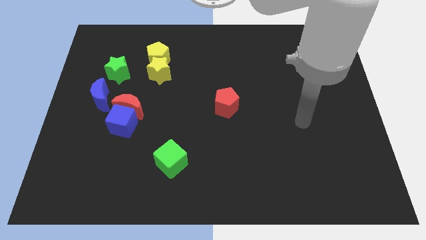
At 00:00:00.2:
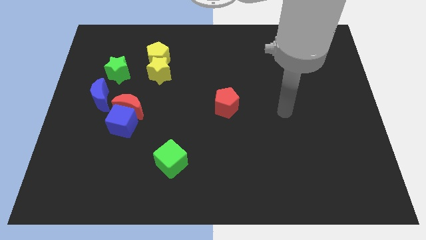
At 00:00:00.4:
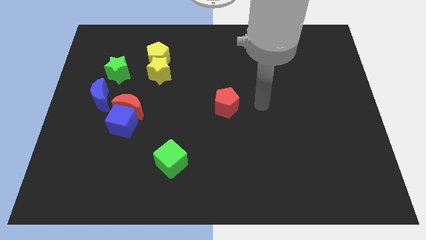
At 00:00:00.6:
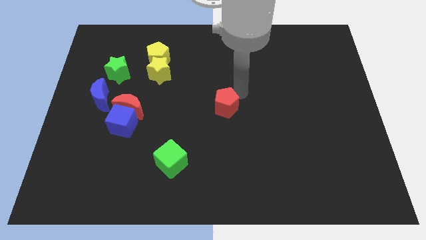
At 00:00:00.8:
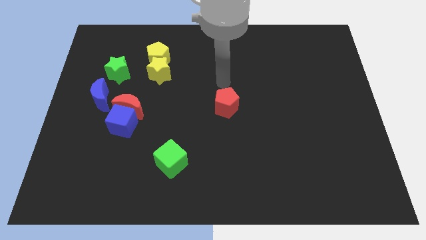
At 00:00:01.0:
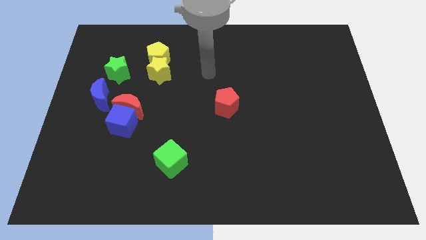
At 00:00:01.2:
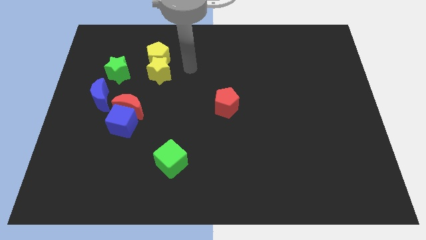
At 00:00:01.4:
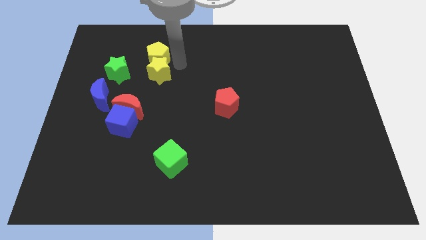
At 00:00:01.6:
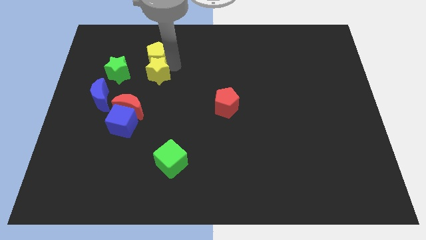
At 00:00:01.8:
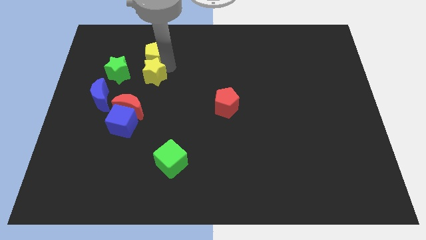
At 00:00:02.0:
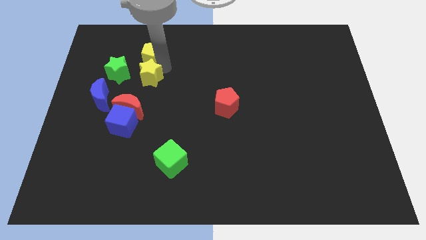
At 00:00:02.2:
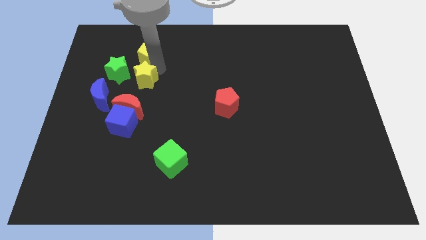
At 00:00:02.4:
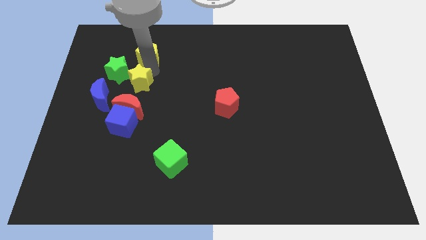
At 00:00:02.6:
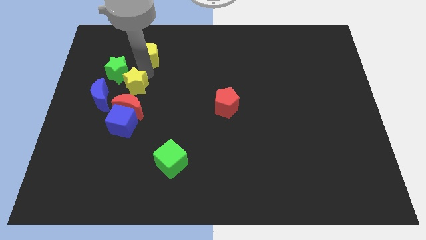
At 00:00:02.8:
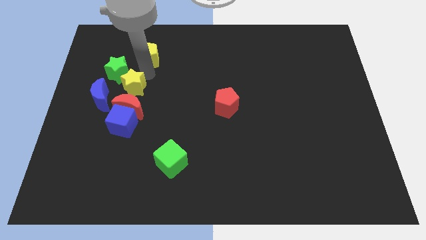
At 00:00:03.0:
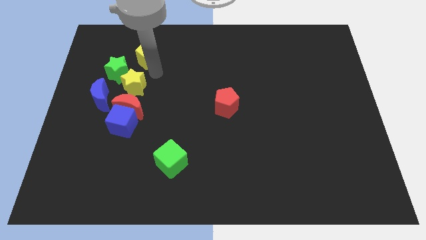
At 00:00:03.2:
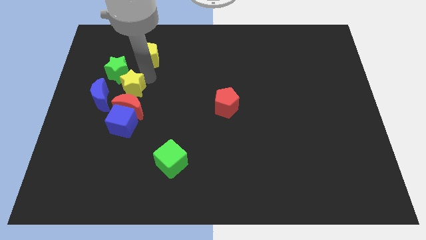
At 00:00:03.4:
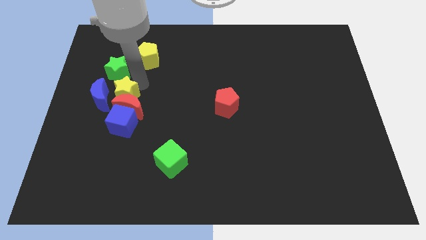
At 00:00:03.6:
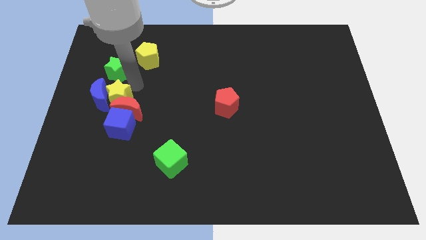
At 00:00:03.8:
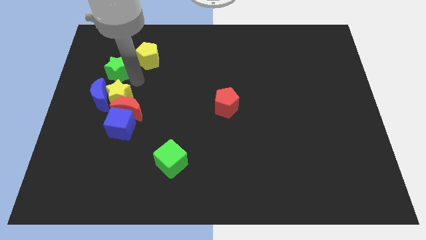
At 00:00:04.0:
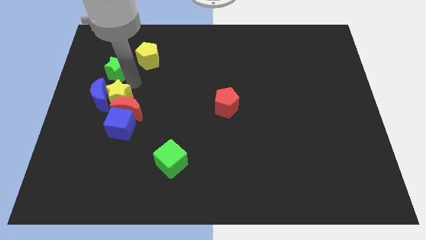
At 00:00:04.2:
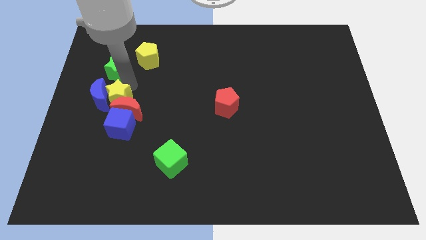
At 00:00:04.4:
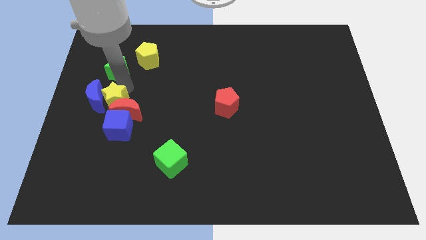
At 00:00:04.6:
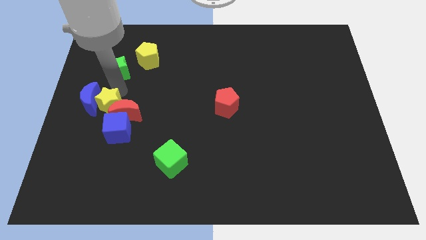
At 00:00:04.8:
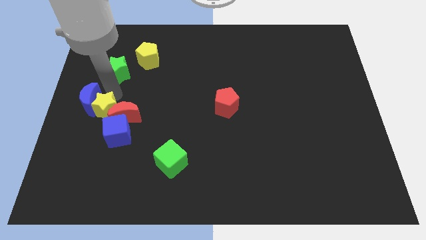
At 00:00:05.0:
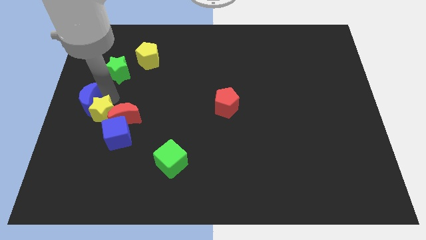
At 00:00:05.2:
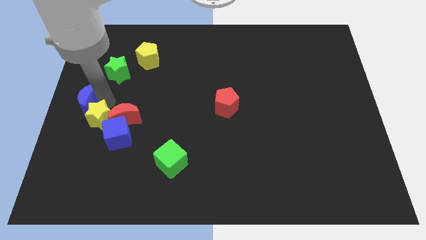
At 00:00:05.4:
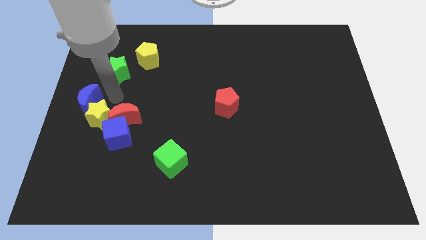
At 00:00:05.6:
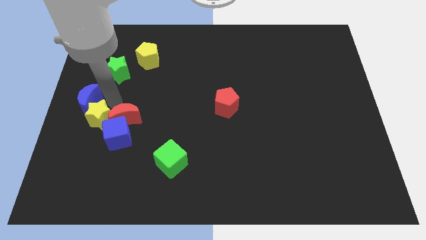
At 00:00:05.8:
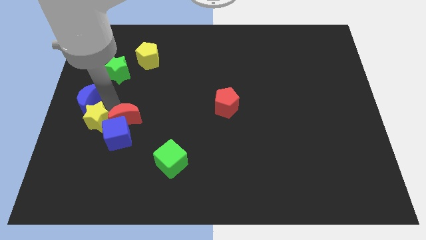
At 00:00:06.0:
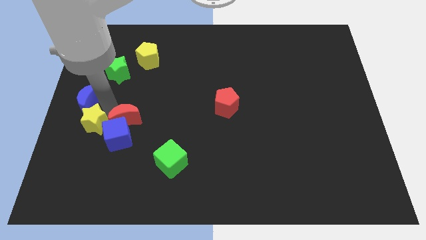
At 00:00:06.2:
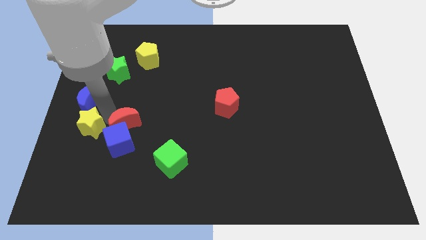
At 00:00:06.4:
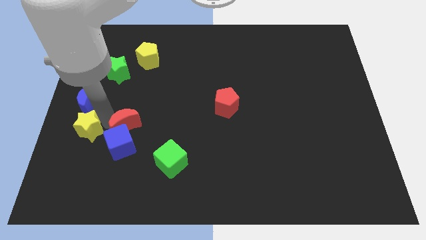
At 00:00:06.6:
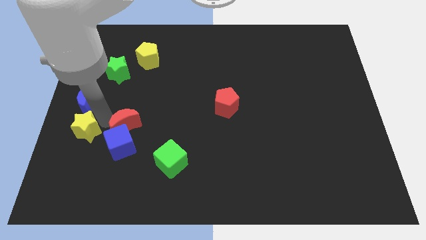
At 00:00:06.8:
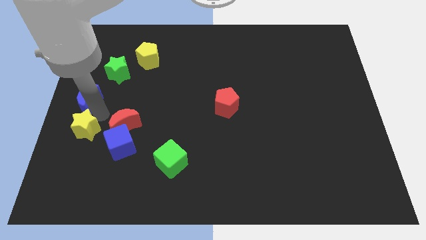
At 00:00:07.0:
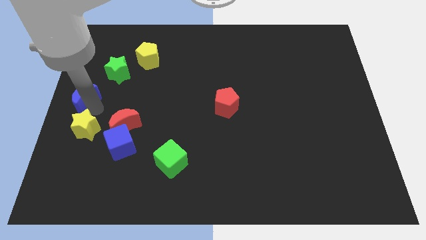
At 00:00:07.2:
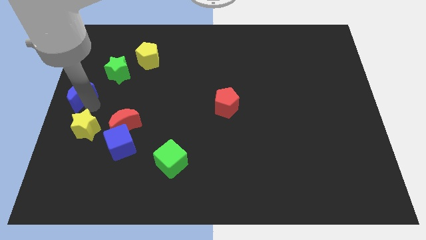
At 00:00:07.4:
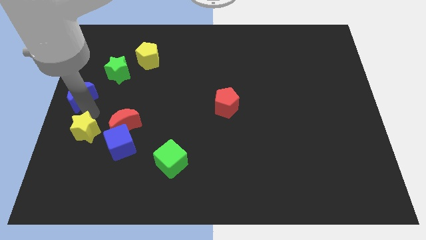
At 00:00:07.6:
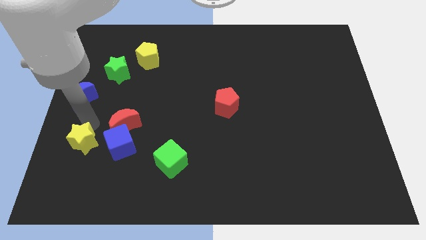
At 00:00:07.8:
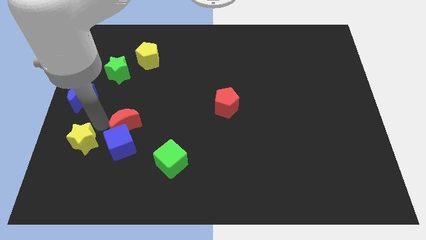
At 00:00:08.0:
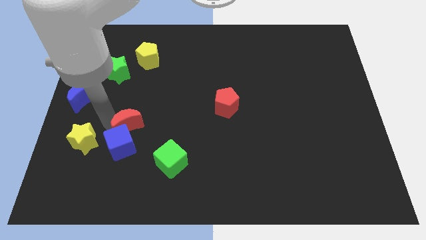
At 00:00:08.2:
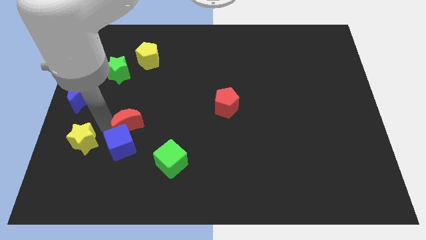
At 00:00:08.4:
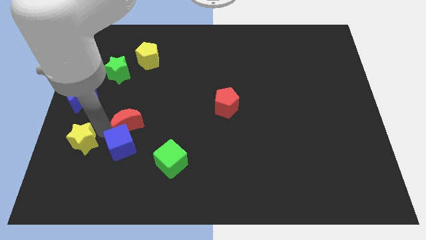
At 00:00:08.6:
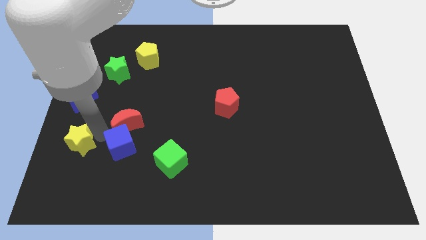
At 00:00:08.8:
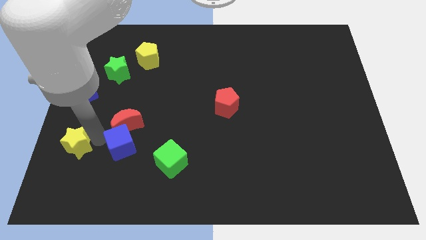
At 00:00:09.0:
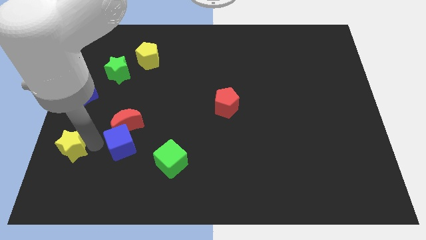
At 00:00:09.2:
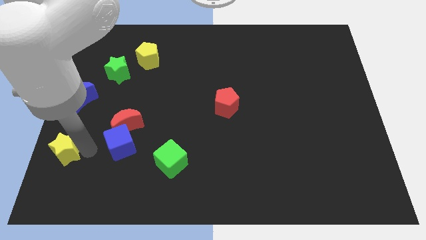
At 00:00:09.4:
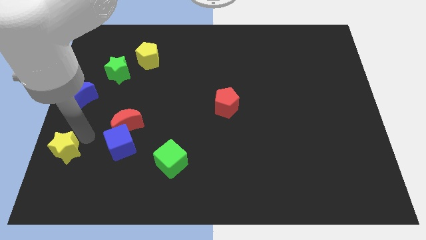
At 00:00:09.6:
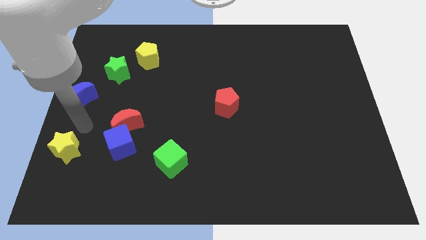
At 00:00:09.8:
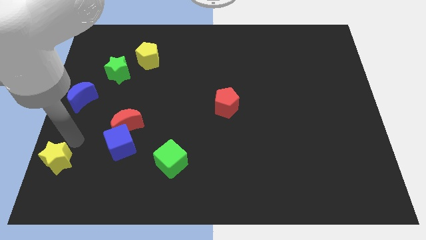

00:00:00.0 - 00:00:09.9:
slide the yellow star to the bottom left

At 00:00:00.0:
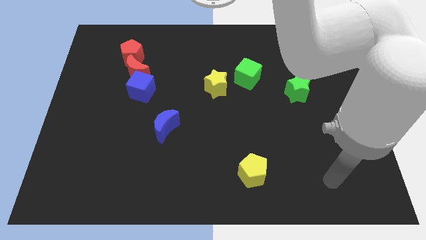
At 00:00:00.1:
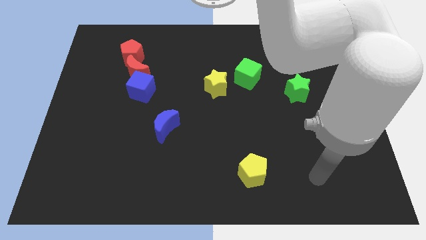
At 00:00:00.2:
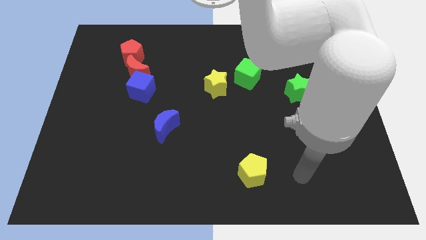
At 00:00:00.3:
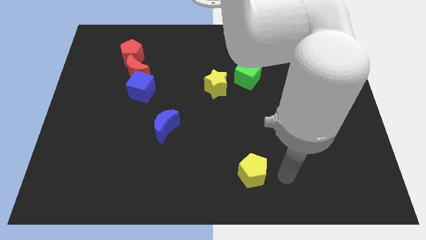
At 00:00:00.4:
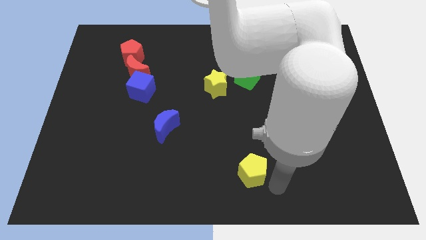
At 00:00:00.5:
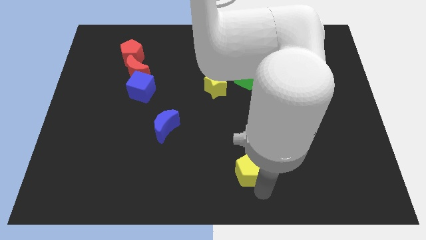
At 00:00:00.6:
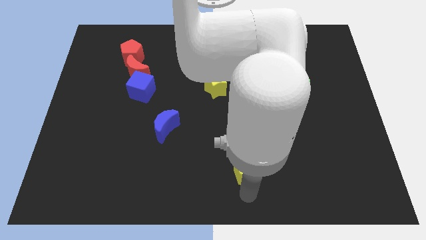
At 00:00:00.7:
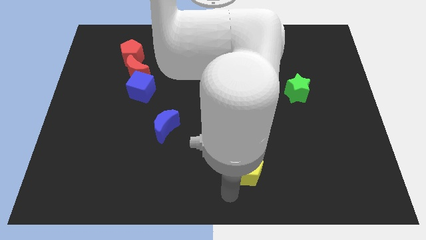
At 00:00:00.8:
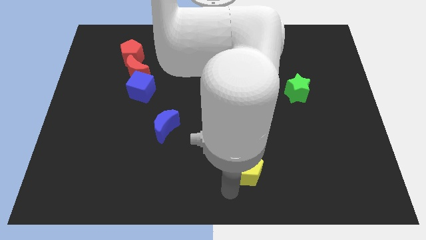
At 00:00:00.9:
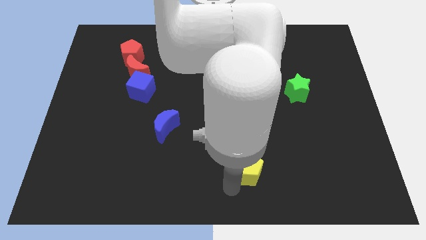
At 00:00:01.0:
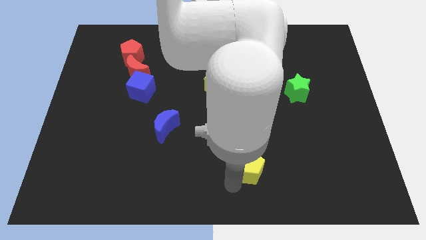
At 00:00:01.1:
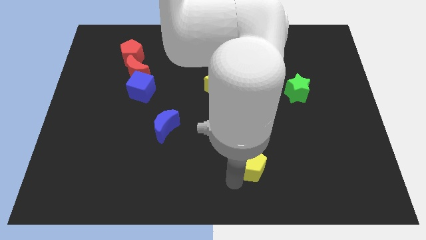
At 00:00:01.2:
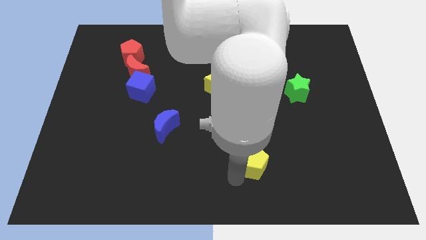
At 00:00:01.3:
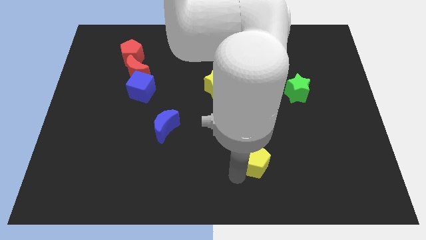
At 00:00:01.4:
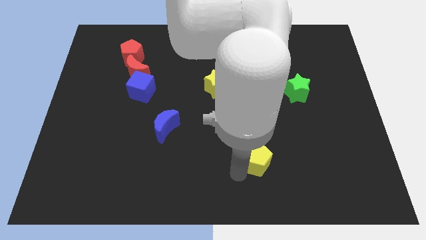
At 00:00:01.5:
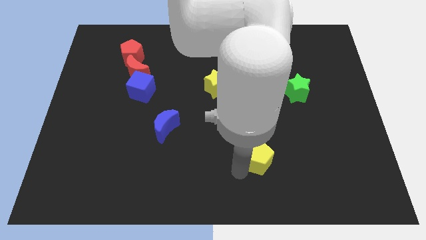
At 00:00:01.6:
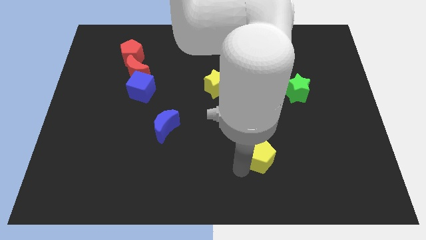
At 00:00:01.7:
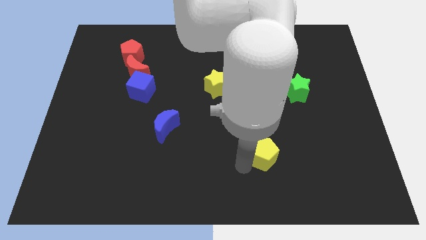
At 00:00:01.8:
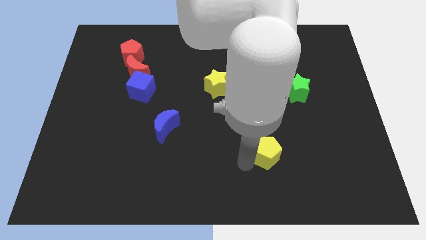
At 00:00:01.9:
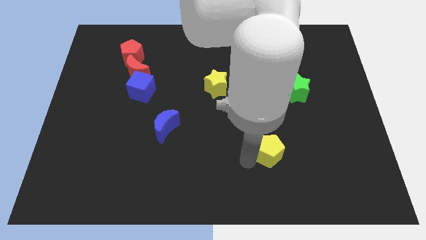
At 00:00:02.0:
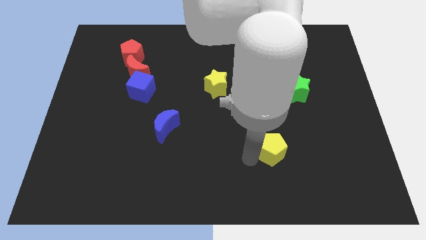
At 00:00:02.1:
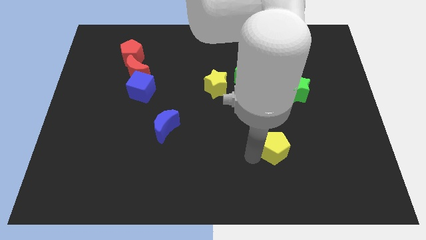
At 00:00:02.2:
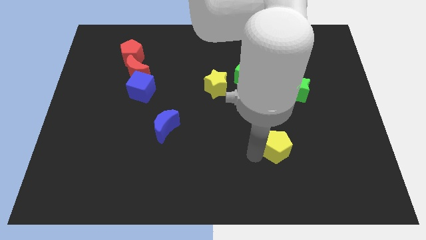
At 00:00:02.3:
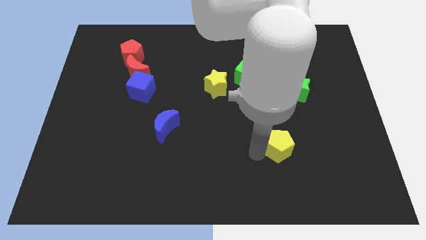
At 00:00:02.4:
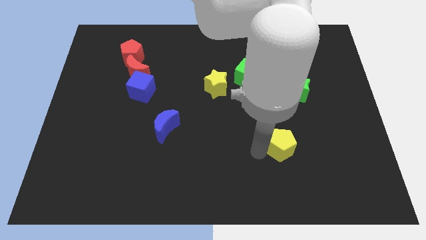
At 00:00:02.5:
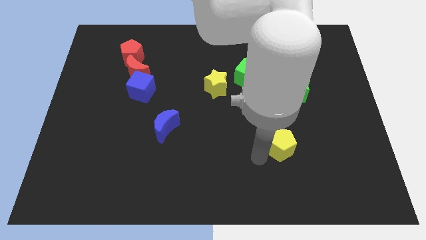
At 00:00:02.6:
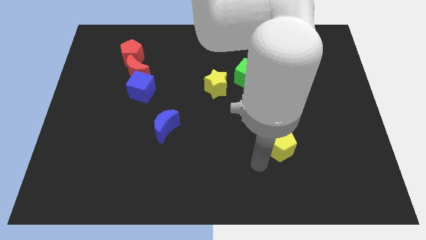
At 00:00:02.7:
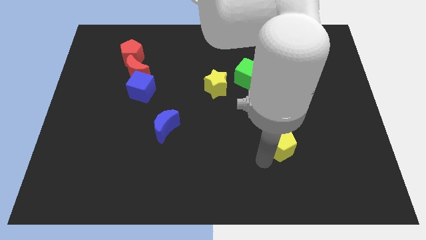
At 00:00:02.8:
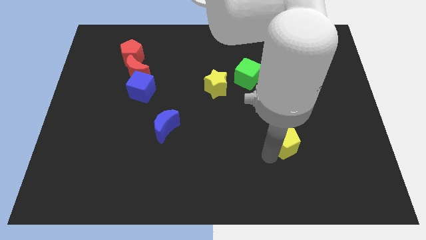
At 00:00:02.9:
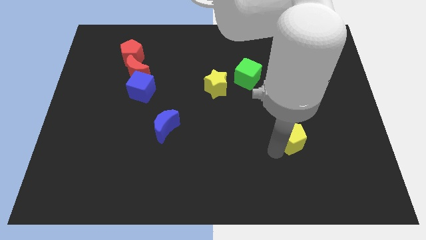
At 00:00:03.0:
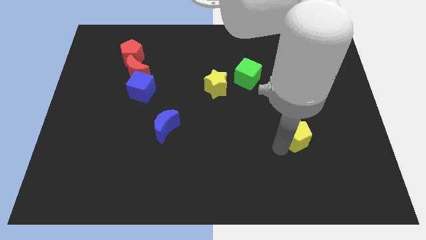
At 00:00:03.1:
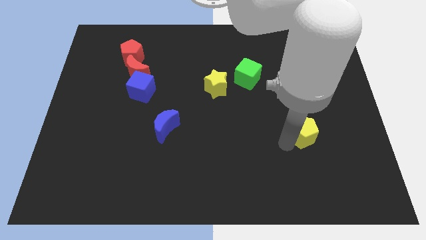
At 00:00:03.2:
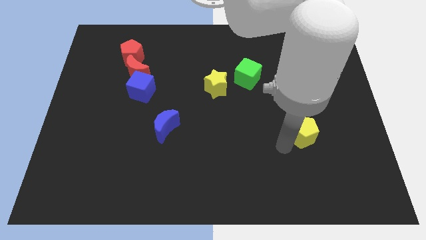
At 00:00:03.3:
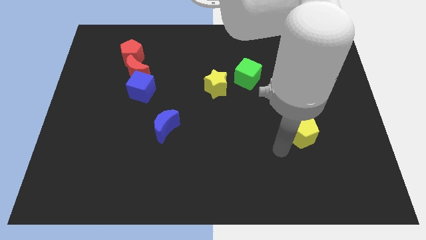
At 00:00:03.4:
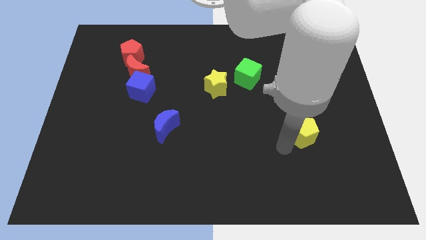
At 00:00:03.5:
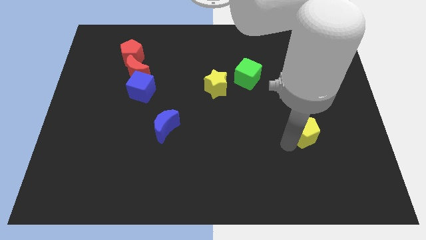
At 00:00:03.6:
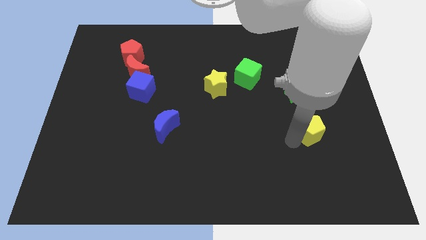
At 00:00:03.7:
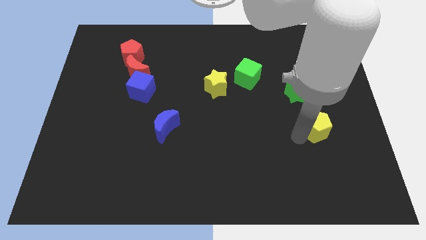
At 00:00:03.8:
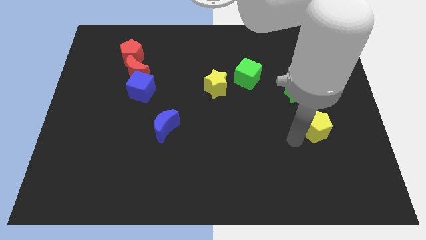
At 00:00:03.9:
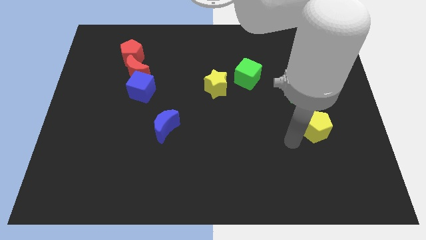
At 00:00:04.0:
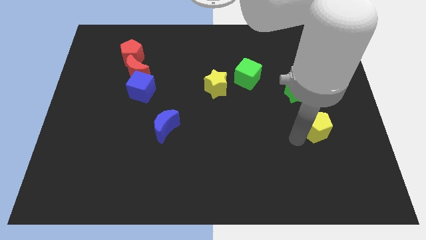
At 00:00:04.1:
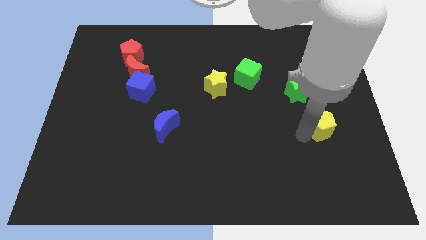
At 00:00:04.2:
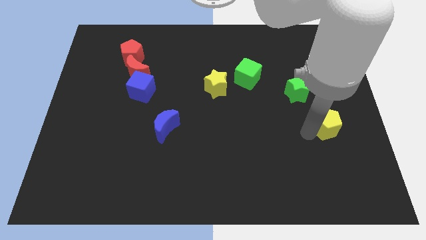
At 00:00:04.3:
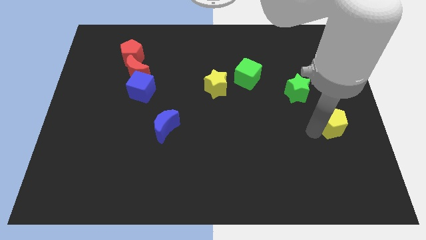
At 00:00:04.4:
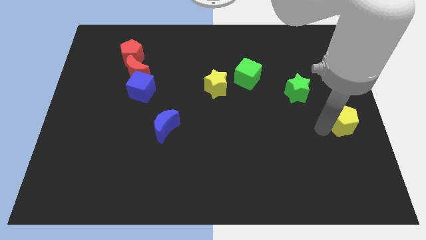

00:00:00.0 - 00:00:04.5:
slide the yellow pentagon to the right side of the board
